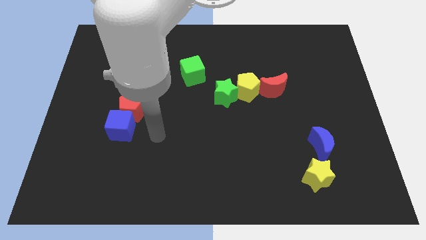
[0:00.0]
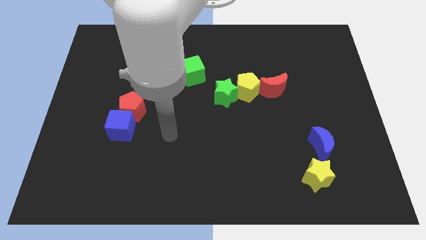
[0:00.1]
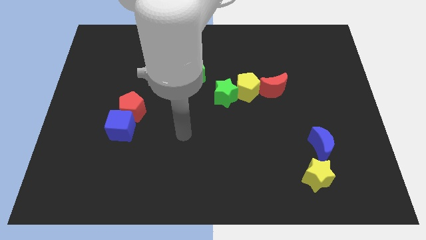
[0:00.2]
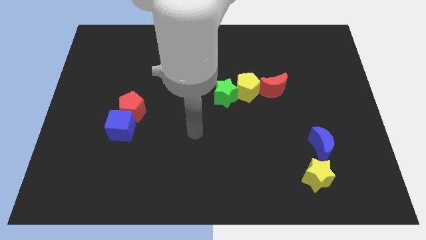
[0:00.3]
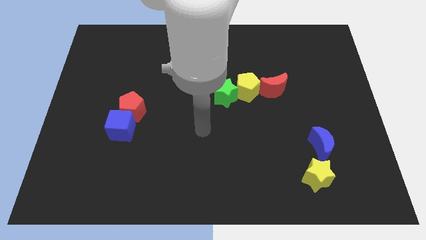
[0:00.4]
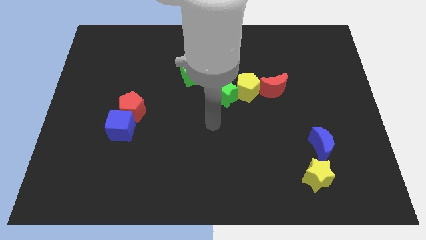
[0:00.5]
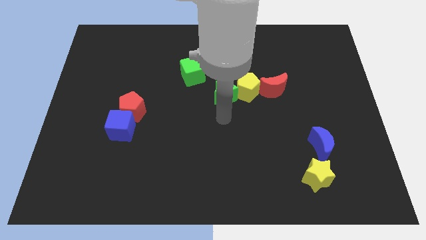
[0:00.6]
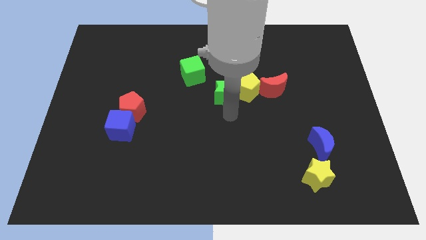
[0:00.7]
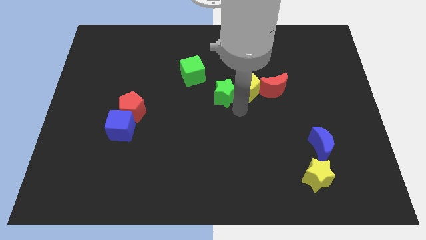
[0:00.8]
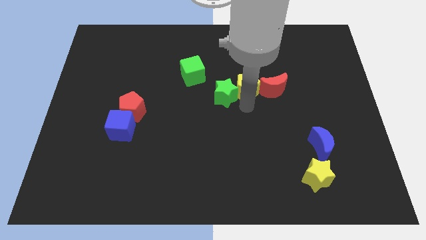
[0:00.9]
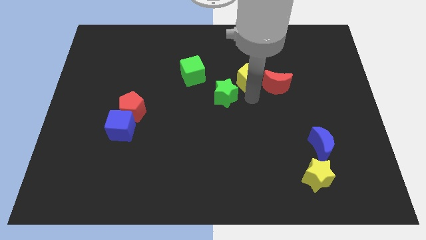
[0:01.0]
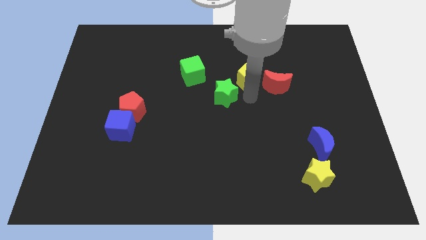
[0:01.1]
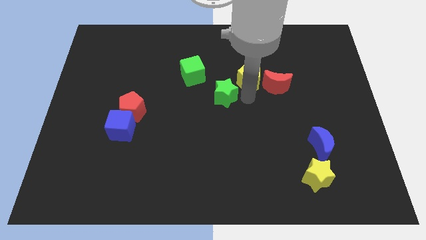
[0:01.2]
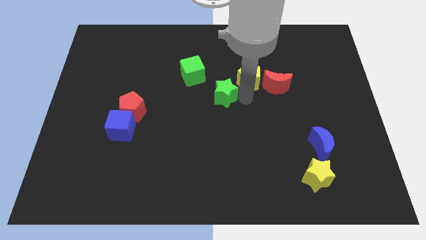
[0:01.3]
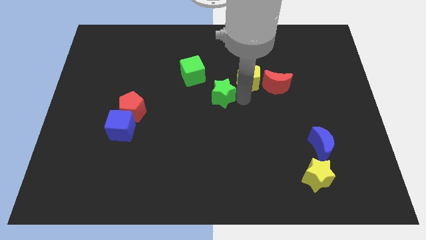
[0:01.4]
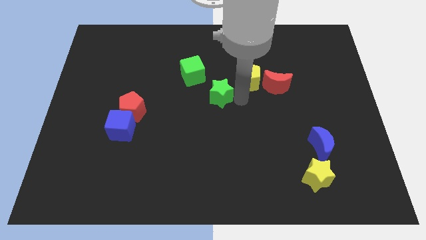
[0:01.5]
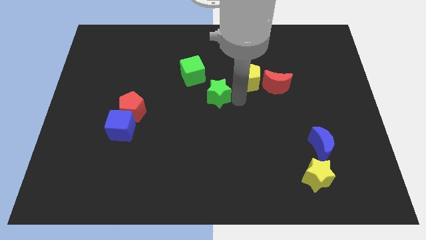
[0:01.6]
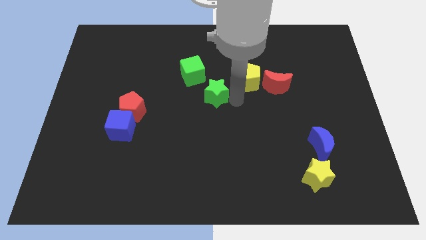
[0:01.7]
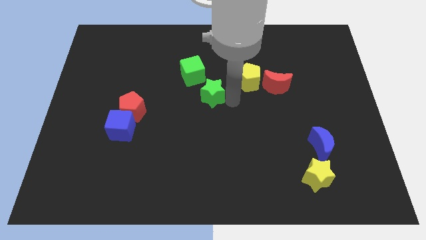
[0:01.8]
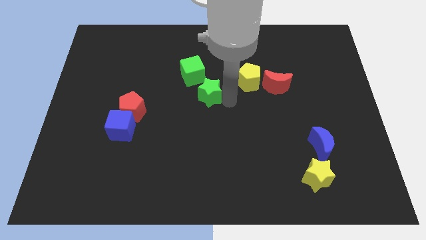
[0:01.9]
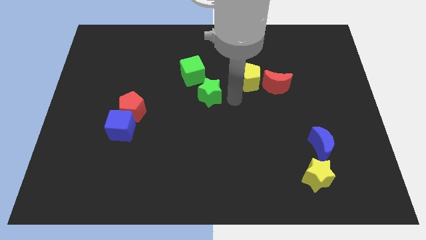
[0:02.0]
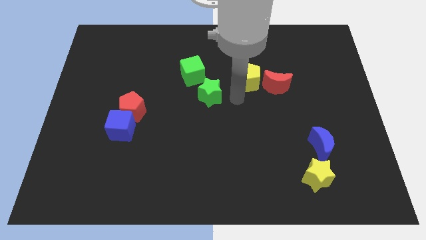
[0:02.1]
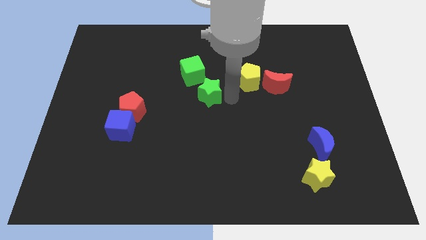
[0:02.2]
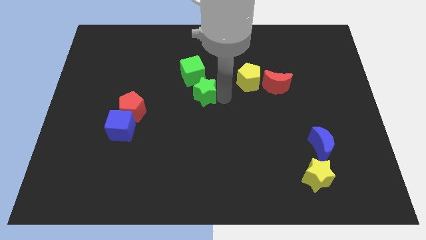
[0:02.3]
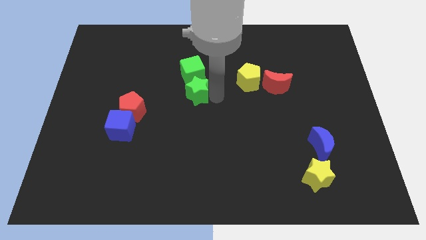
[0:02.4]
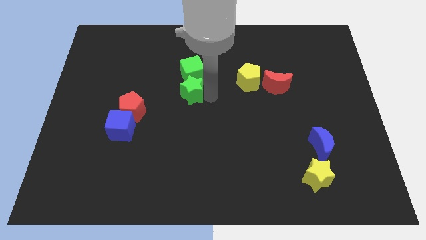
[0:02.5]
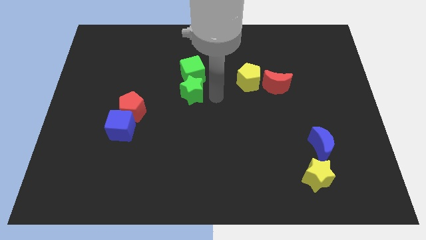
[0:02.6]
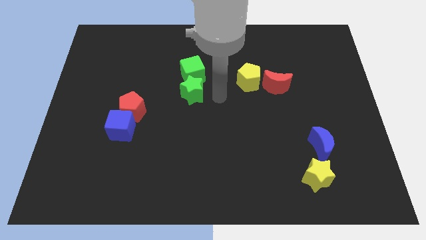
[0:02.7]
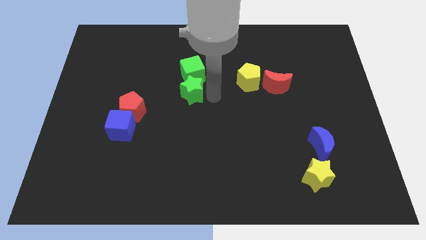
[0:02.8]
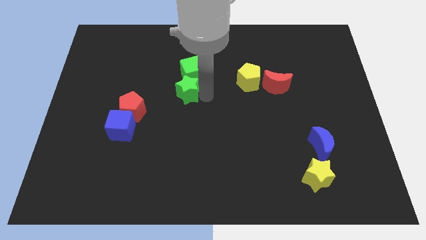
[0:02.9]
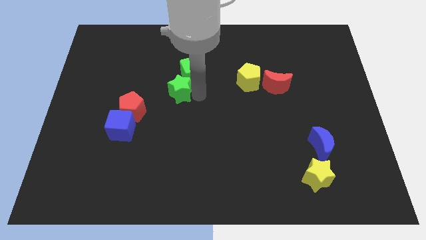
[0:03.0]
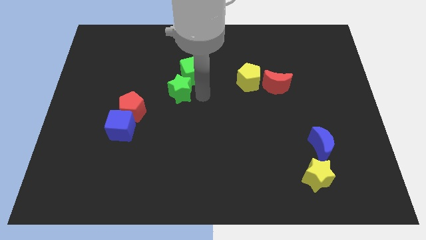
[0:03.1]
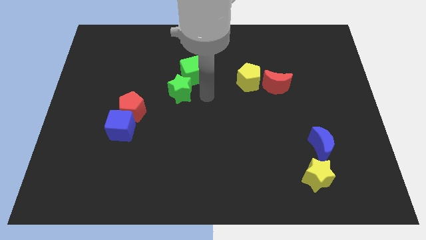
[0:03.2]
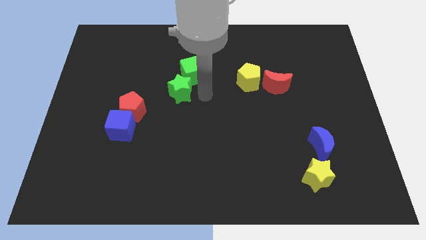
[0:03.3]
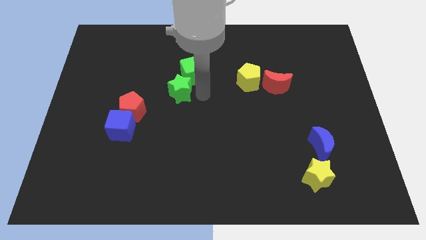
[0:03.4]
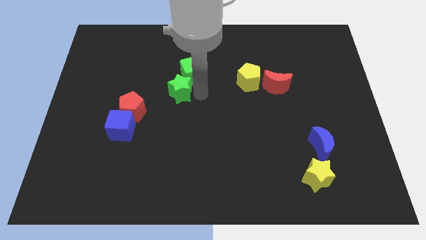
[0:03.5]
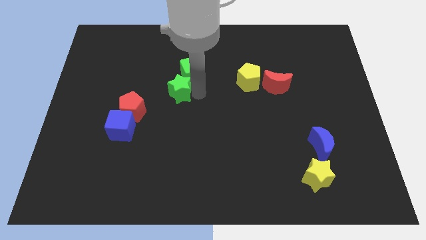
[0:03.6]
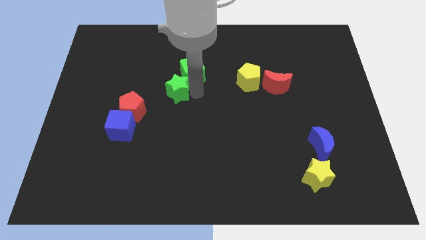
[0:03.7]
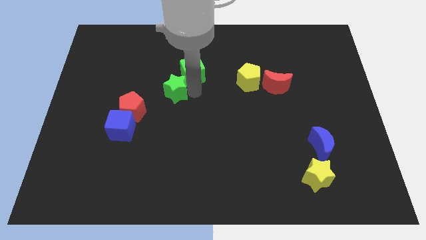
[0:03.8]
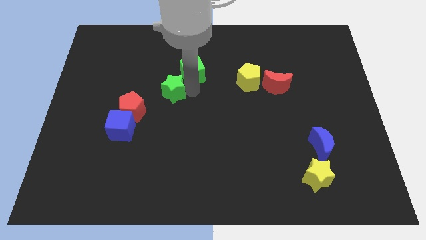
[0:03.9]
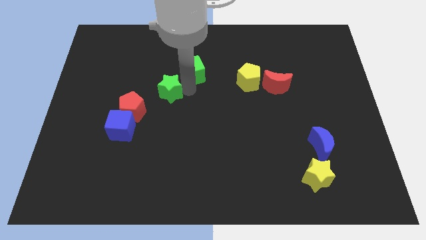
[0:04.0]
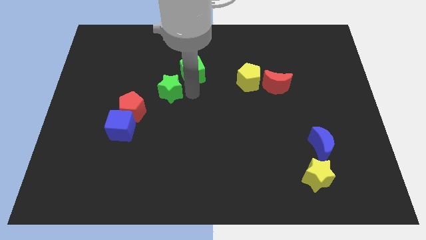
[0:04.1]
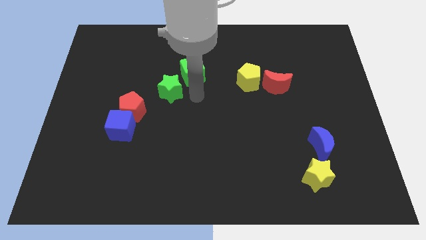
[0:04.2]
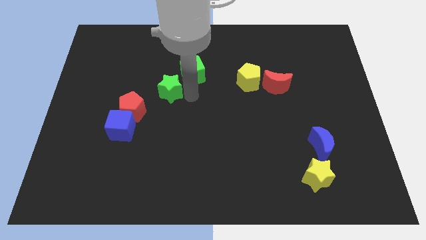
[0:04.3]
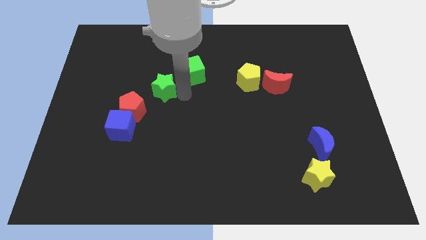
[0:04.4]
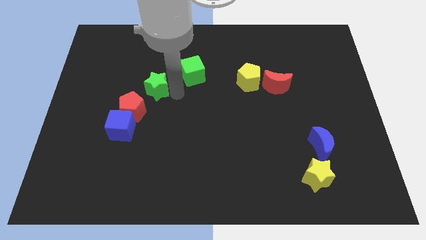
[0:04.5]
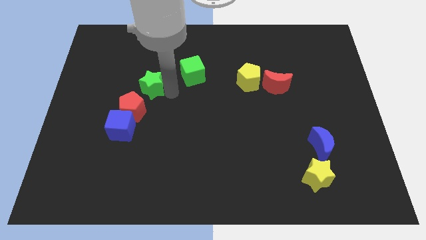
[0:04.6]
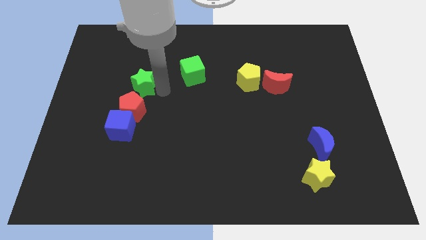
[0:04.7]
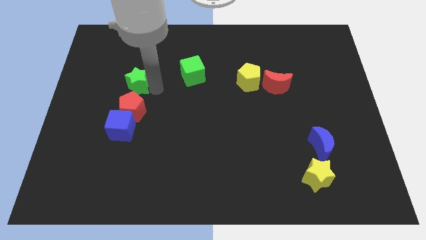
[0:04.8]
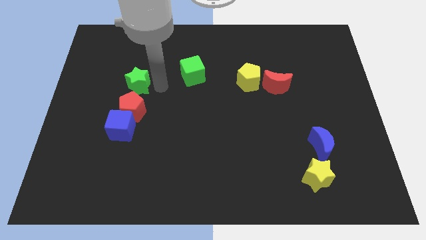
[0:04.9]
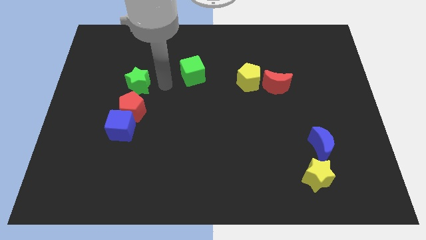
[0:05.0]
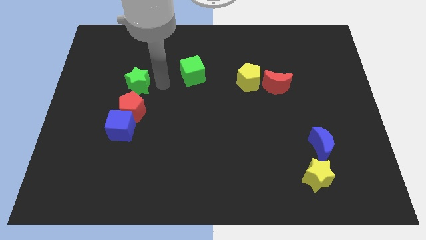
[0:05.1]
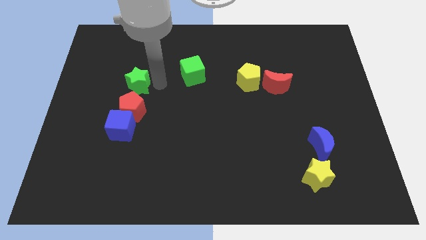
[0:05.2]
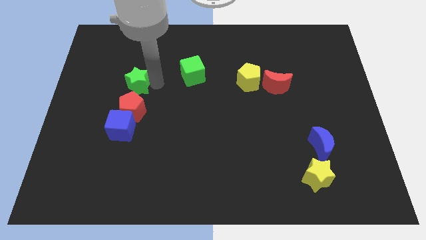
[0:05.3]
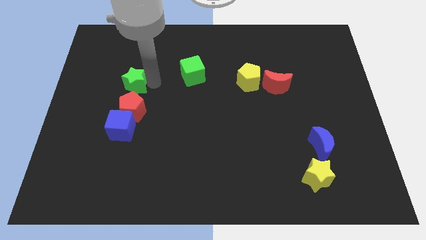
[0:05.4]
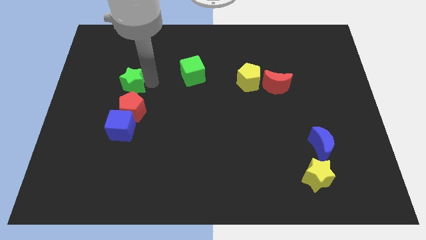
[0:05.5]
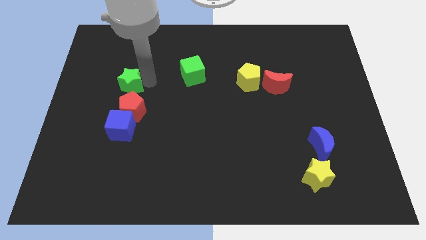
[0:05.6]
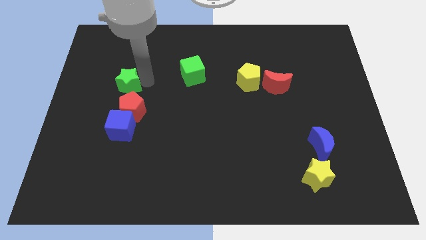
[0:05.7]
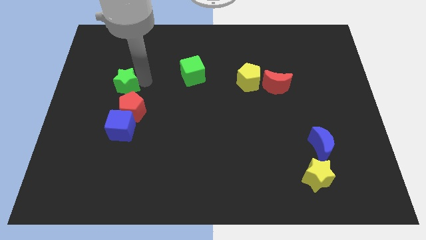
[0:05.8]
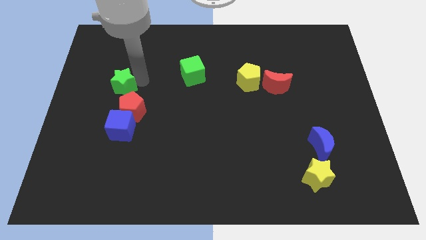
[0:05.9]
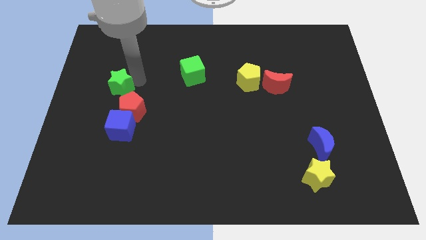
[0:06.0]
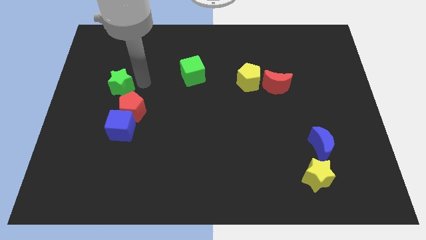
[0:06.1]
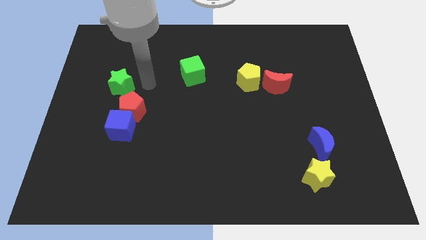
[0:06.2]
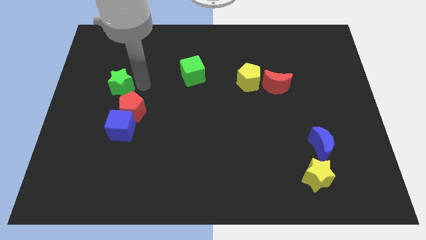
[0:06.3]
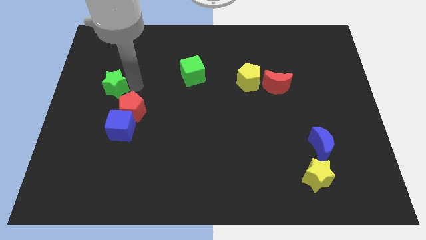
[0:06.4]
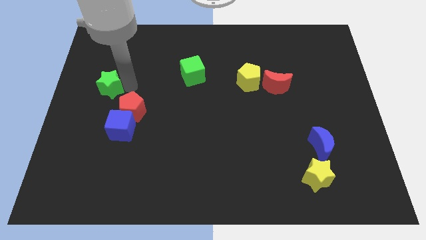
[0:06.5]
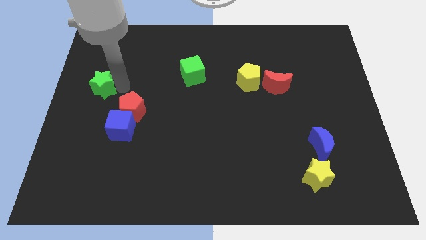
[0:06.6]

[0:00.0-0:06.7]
move the green star to the left side of the board
